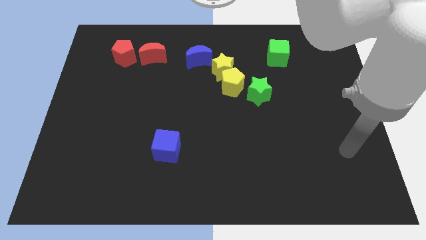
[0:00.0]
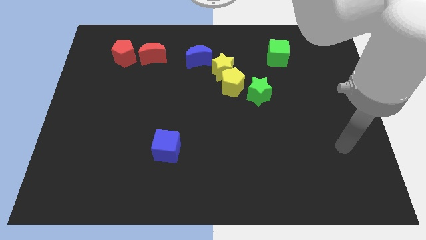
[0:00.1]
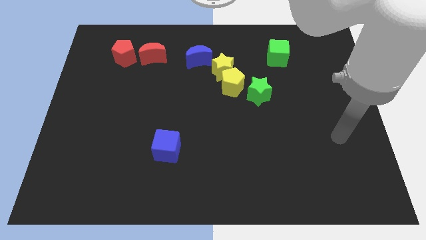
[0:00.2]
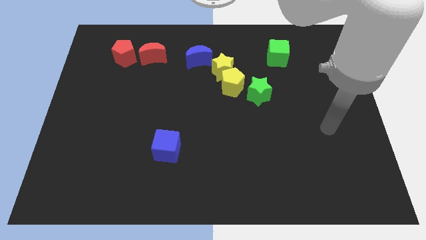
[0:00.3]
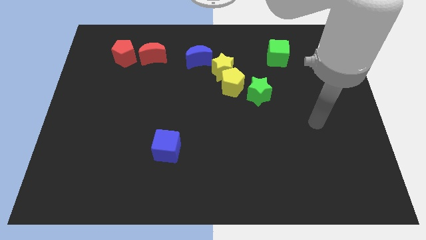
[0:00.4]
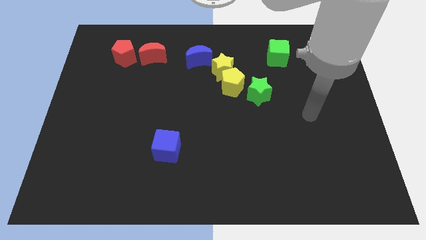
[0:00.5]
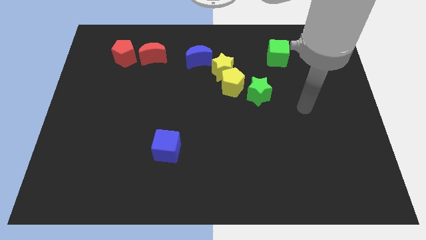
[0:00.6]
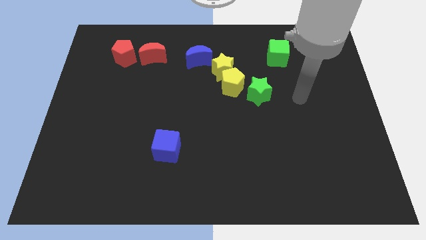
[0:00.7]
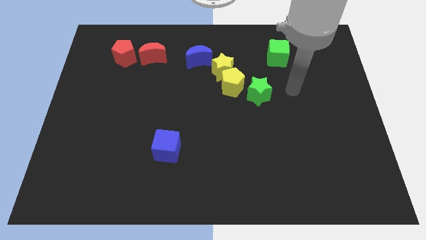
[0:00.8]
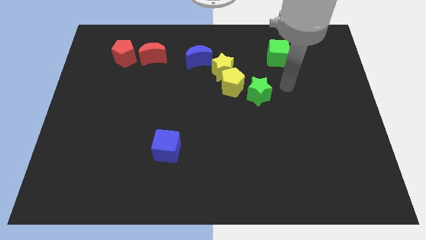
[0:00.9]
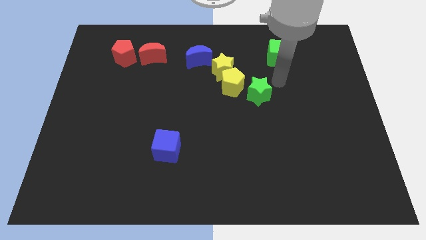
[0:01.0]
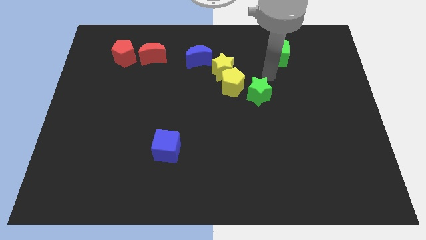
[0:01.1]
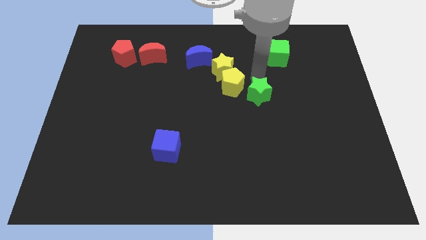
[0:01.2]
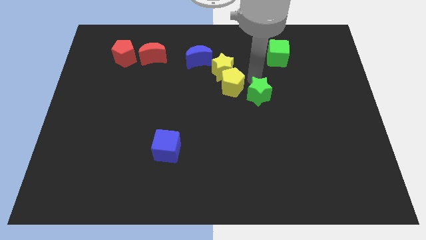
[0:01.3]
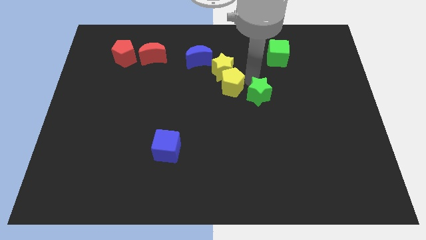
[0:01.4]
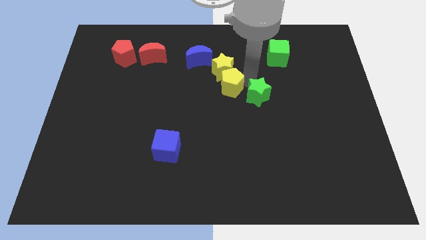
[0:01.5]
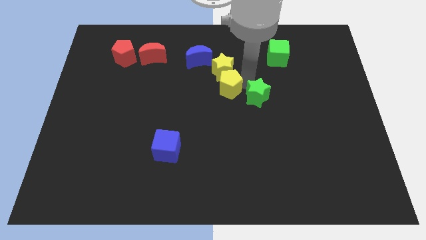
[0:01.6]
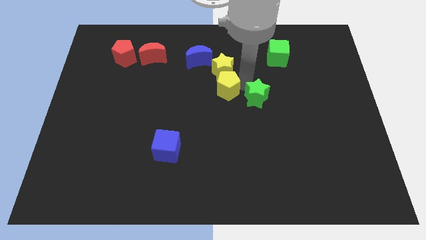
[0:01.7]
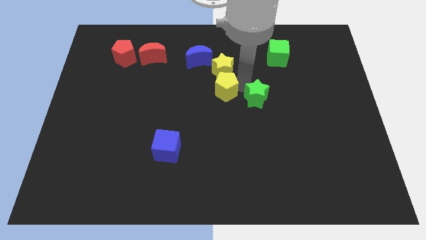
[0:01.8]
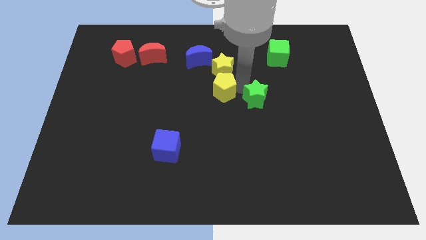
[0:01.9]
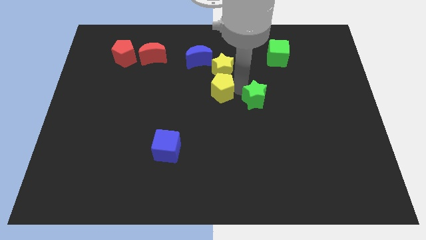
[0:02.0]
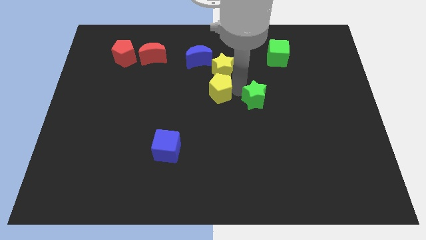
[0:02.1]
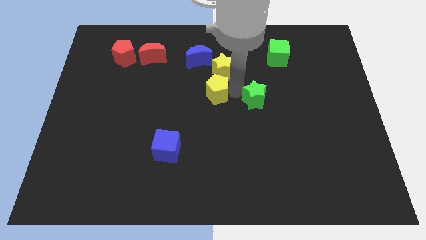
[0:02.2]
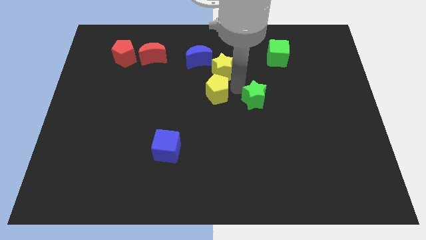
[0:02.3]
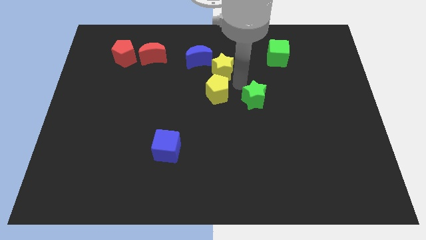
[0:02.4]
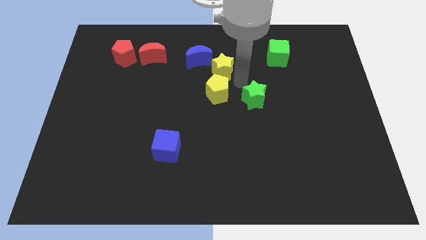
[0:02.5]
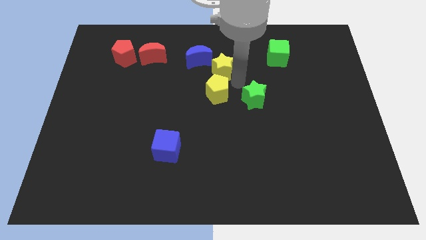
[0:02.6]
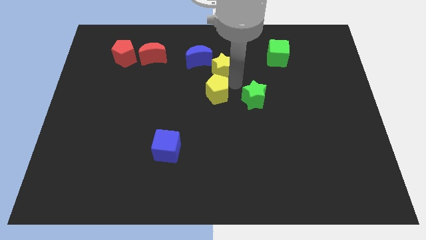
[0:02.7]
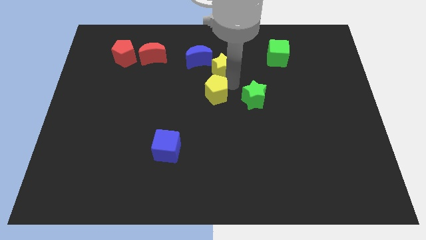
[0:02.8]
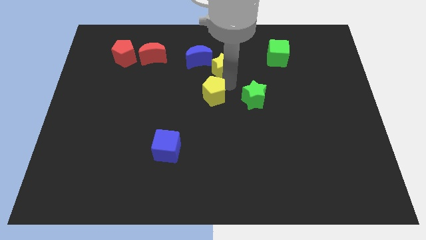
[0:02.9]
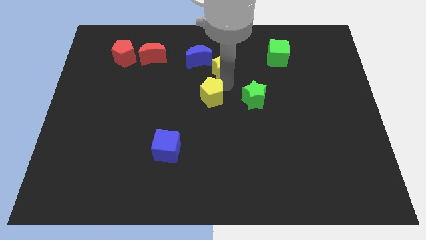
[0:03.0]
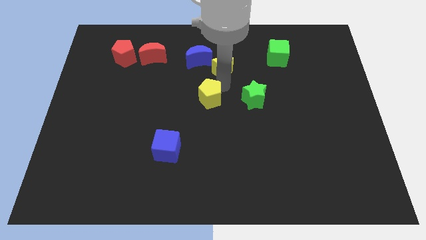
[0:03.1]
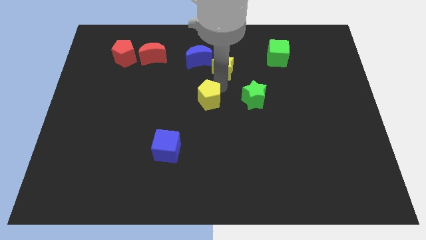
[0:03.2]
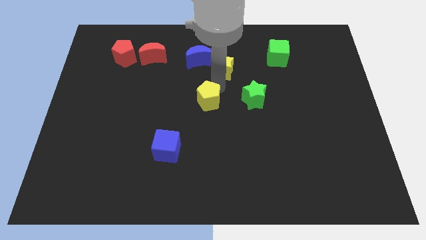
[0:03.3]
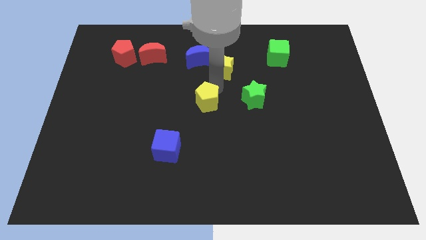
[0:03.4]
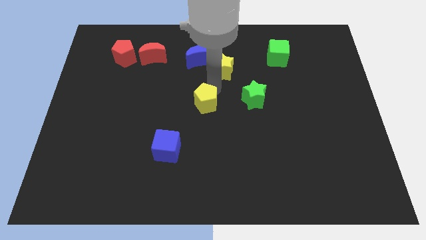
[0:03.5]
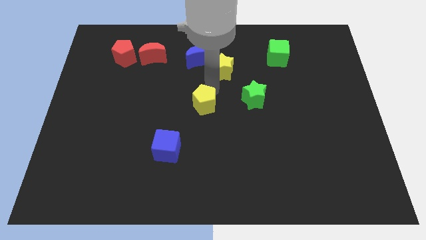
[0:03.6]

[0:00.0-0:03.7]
move the yellow pentagon away from the yellow star and green star

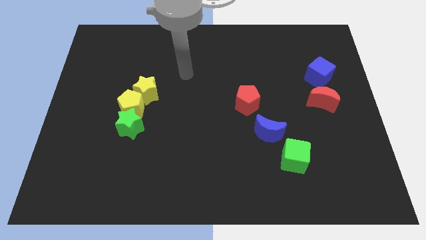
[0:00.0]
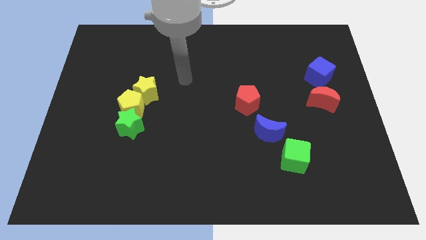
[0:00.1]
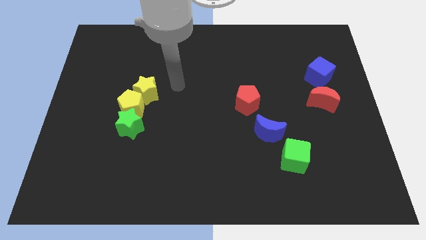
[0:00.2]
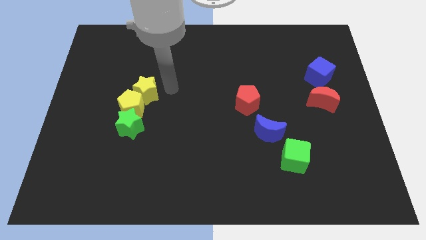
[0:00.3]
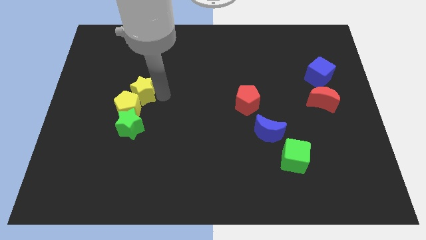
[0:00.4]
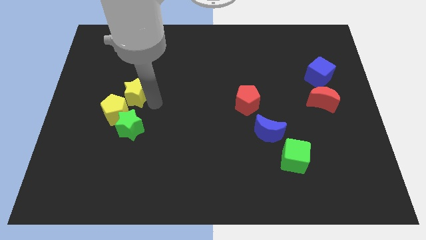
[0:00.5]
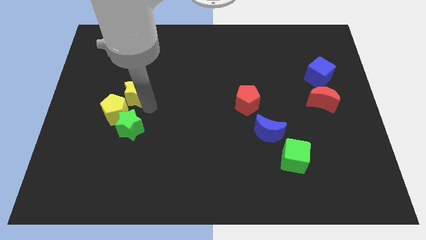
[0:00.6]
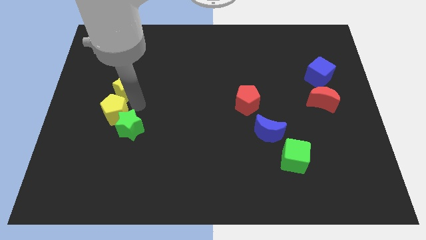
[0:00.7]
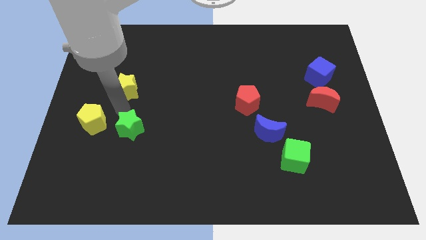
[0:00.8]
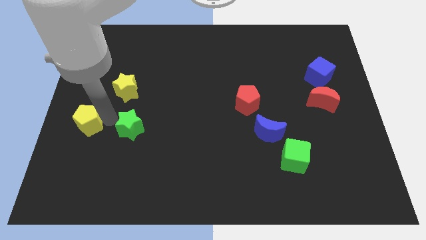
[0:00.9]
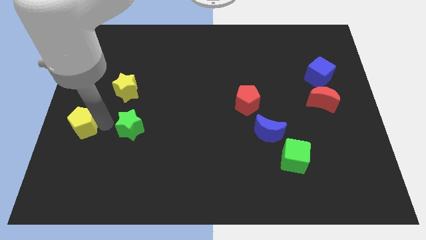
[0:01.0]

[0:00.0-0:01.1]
separate the green star from the yellow pentagon

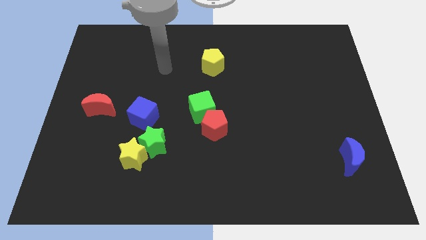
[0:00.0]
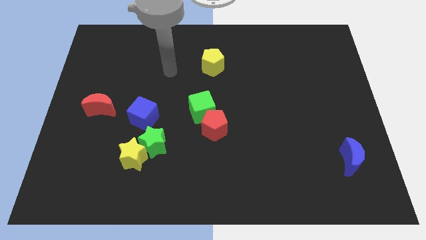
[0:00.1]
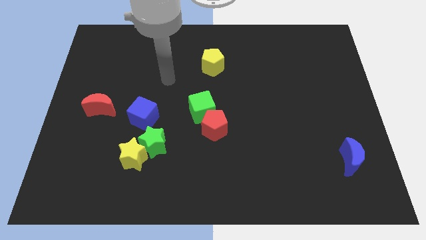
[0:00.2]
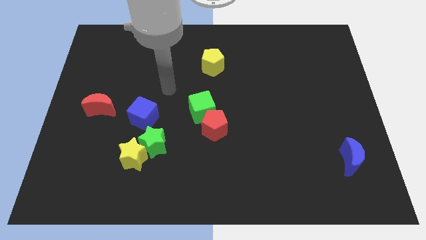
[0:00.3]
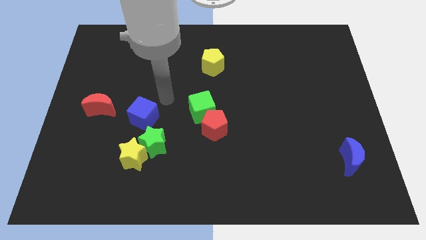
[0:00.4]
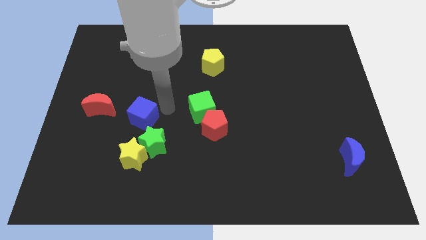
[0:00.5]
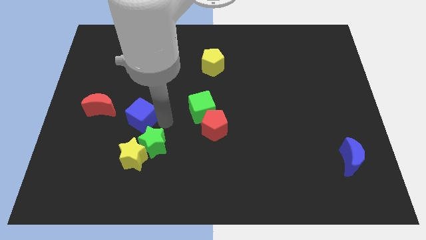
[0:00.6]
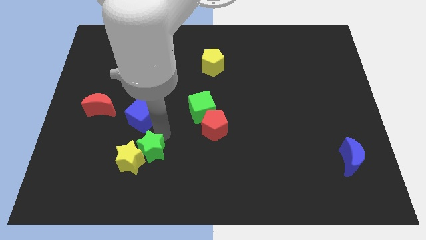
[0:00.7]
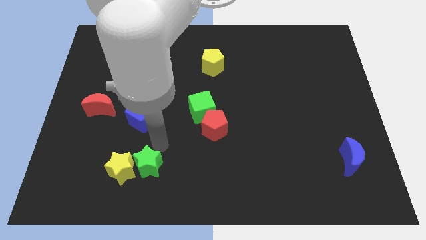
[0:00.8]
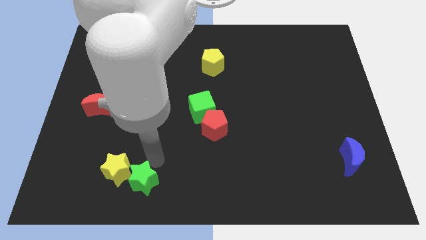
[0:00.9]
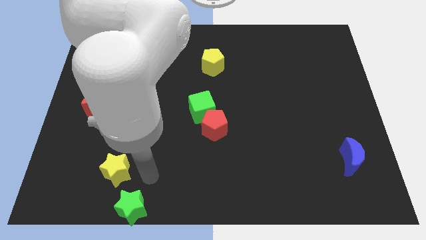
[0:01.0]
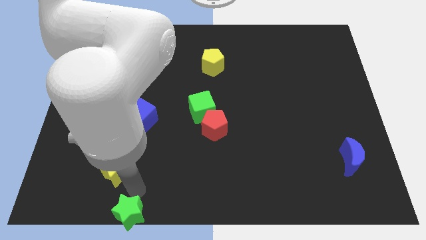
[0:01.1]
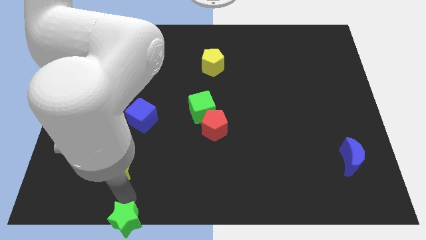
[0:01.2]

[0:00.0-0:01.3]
move the yellow star away from the green star

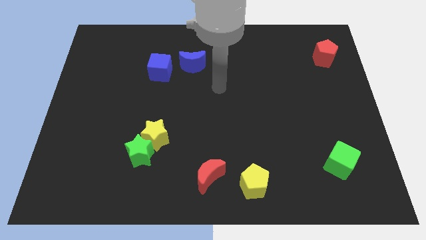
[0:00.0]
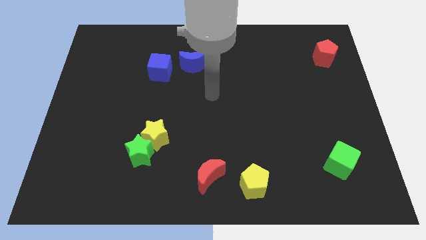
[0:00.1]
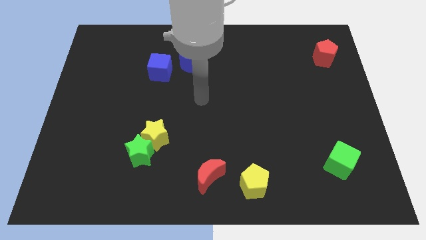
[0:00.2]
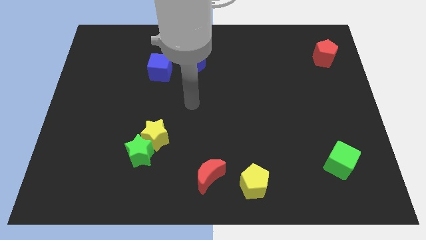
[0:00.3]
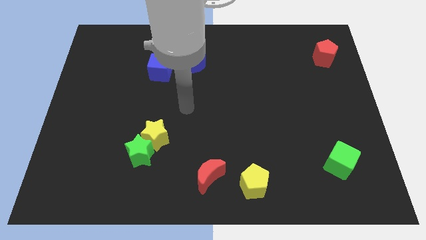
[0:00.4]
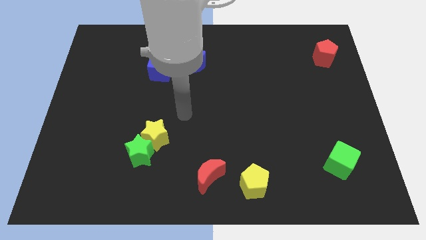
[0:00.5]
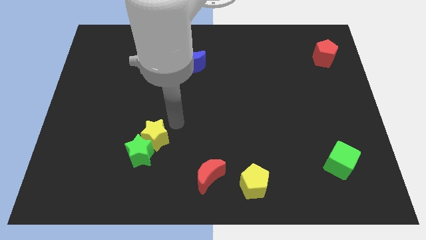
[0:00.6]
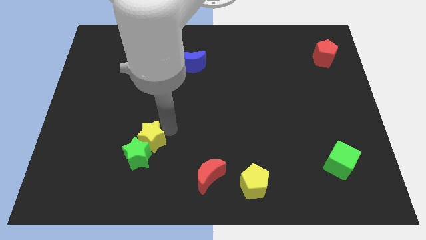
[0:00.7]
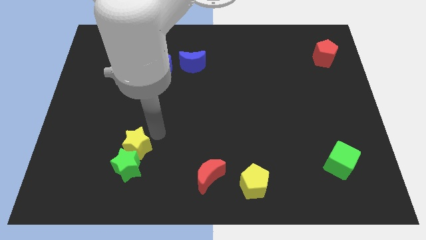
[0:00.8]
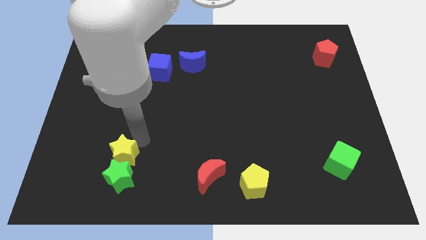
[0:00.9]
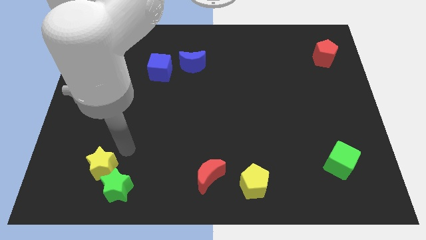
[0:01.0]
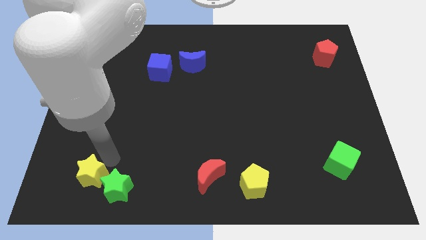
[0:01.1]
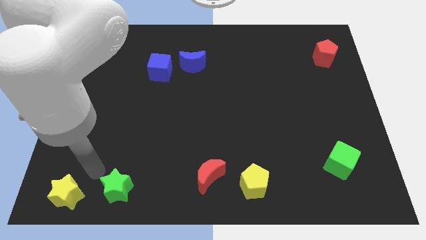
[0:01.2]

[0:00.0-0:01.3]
separate the green star from the yellow star

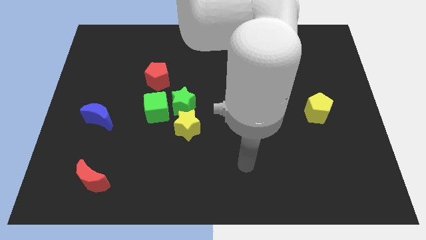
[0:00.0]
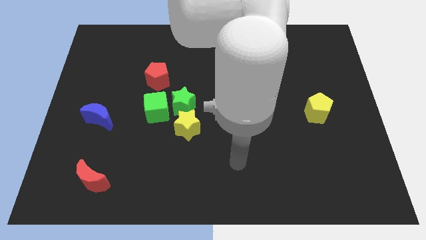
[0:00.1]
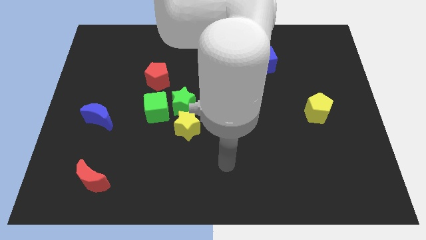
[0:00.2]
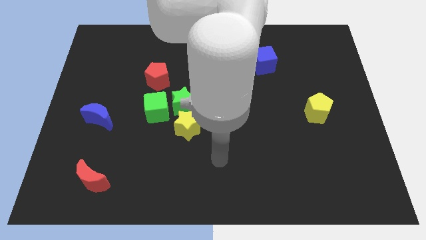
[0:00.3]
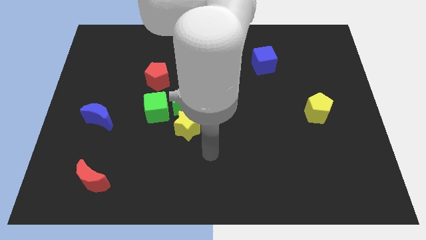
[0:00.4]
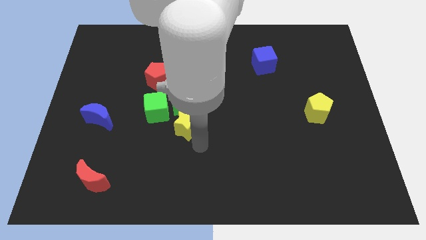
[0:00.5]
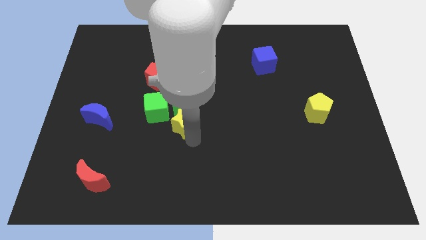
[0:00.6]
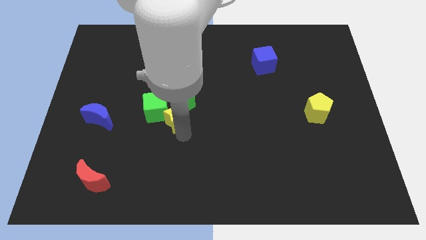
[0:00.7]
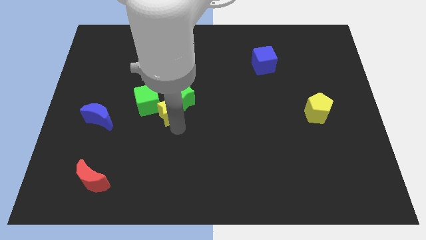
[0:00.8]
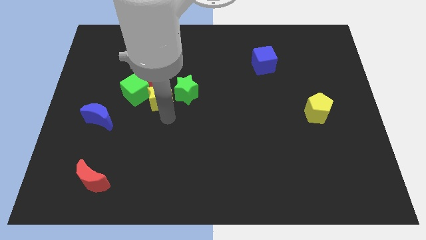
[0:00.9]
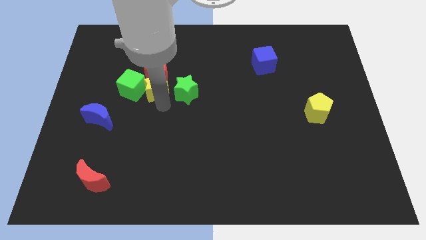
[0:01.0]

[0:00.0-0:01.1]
separate the green star from the green cube and yellow star

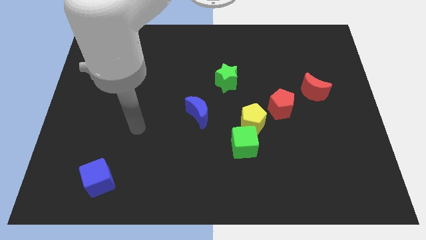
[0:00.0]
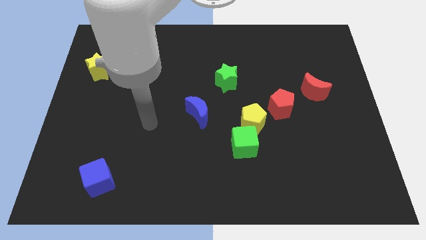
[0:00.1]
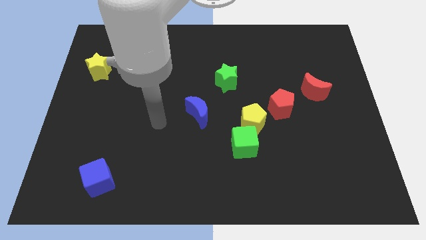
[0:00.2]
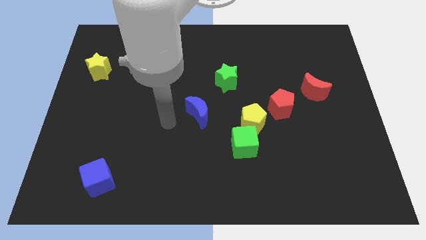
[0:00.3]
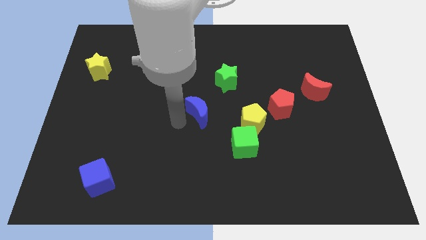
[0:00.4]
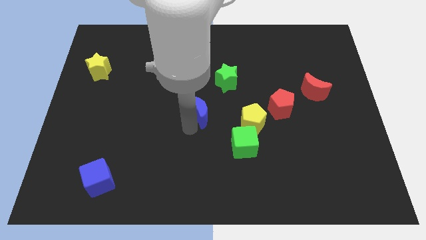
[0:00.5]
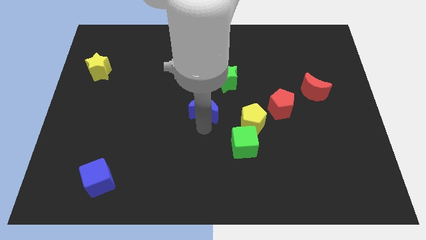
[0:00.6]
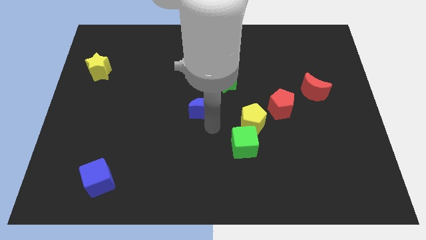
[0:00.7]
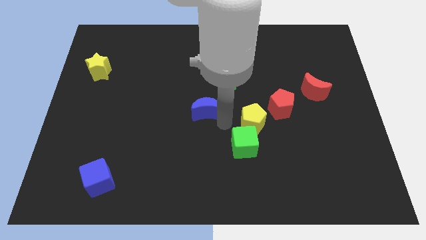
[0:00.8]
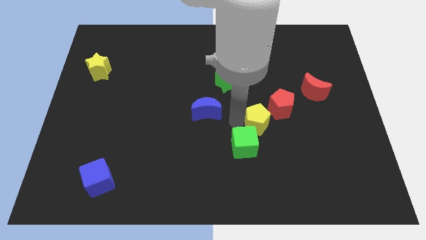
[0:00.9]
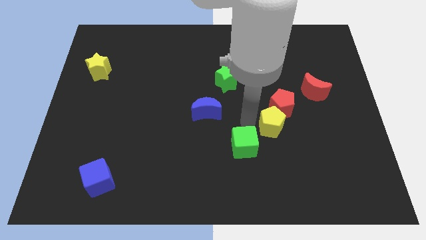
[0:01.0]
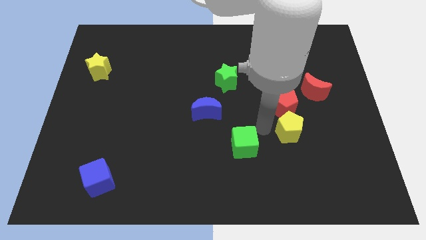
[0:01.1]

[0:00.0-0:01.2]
move the green cube away from the yellow pentagon
